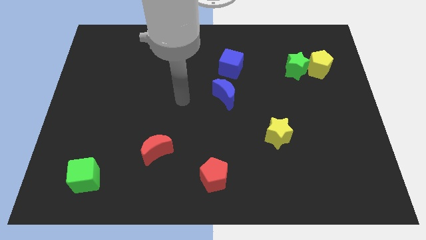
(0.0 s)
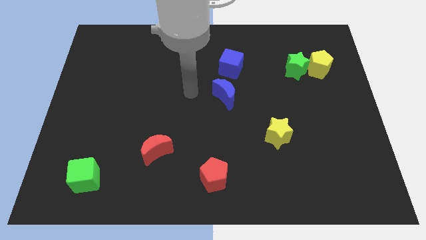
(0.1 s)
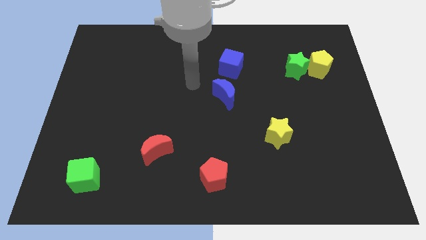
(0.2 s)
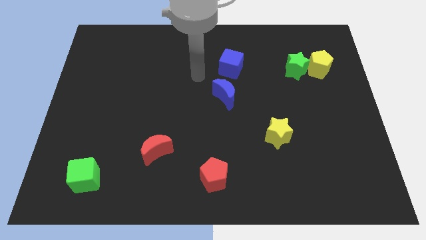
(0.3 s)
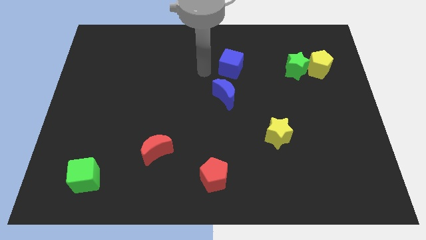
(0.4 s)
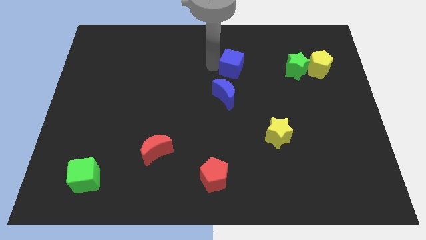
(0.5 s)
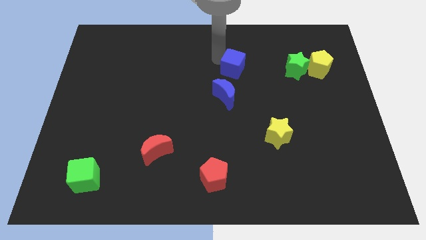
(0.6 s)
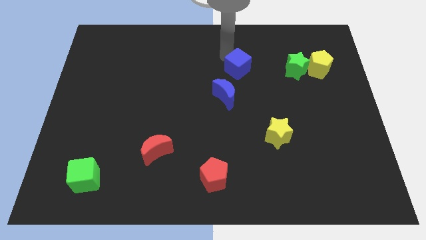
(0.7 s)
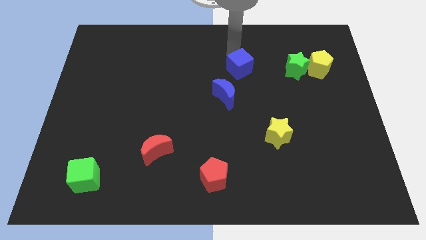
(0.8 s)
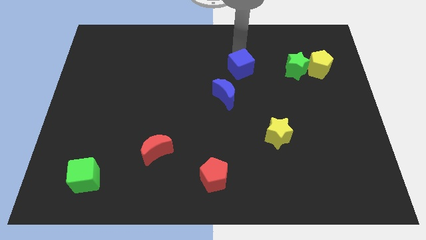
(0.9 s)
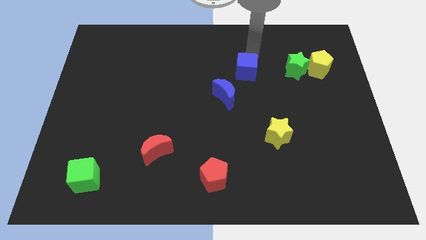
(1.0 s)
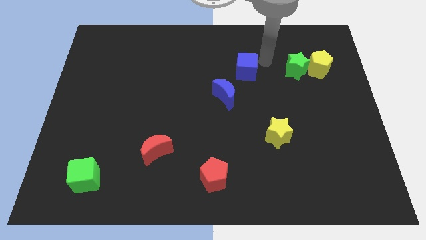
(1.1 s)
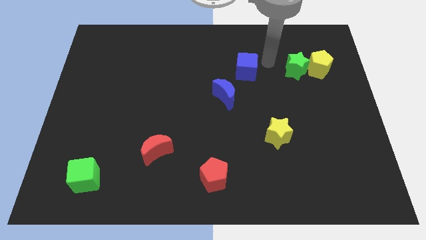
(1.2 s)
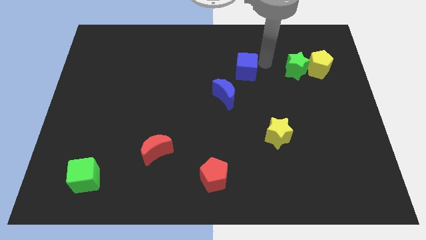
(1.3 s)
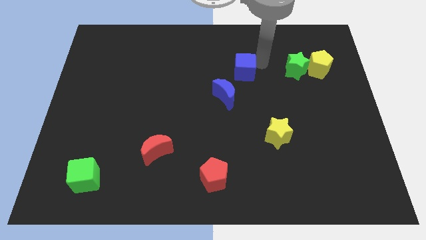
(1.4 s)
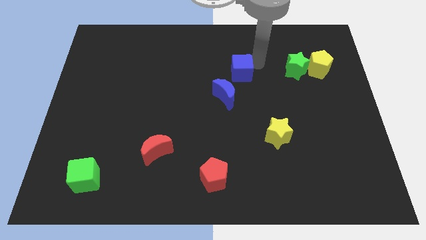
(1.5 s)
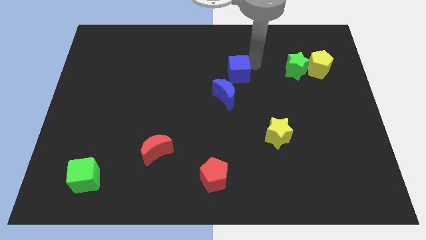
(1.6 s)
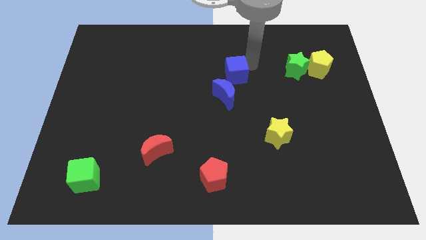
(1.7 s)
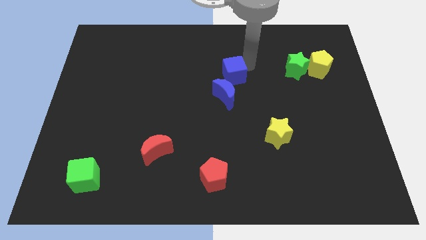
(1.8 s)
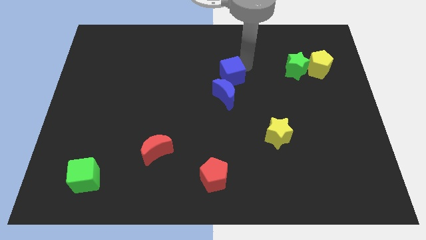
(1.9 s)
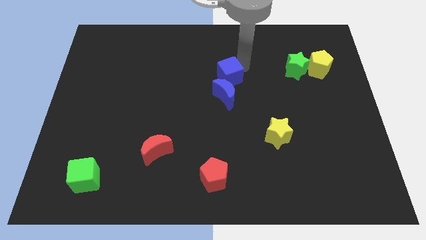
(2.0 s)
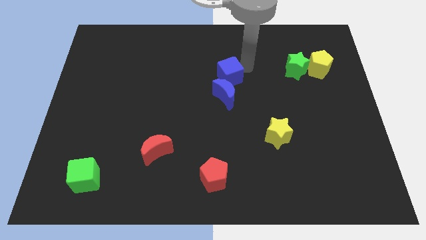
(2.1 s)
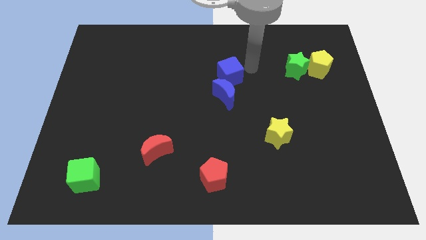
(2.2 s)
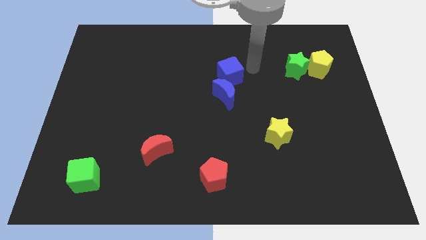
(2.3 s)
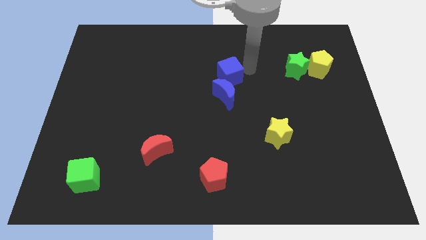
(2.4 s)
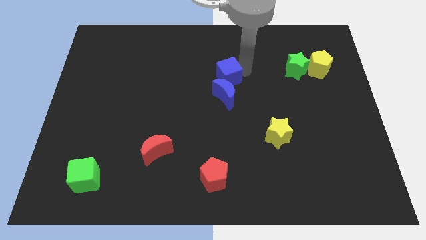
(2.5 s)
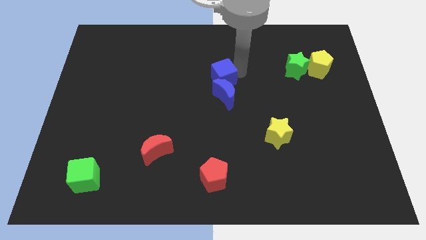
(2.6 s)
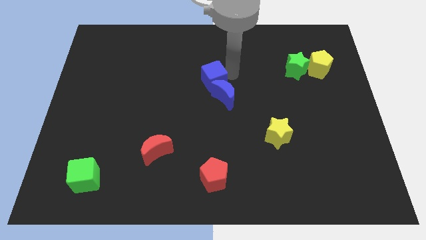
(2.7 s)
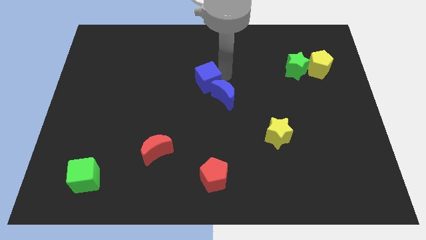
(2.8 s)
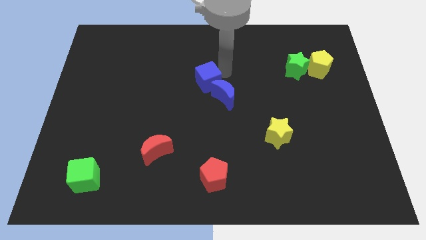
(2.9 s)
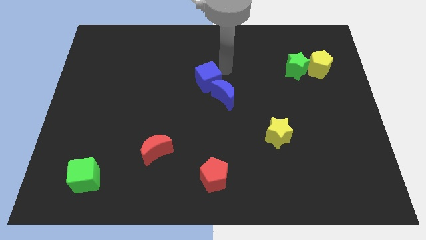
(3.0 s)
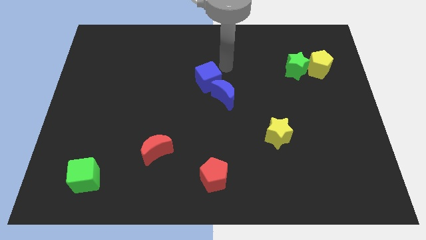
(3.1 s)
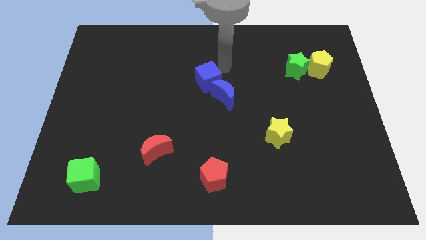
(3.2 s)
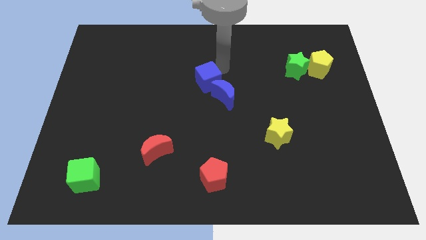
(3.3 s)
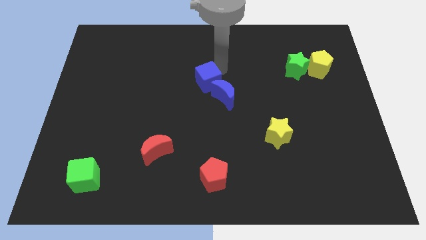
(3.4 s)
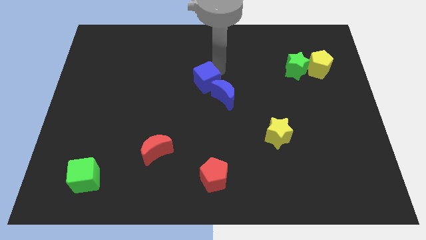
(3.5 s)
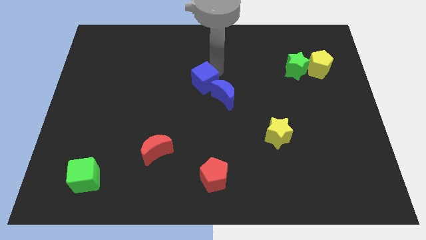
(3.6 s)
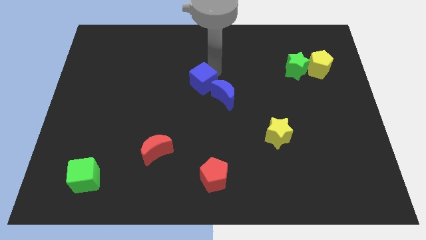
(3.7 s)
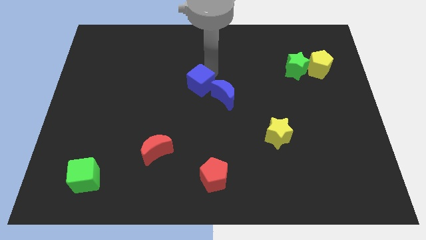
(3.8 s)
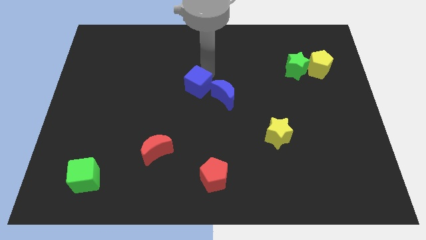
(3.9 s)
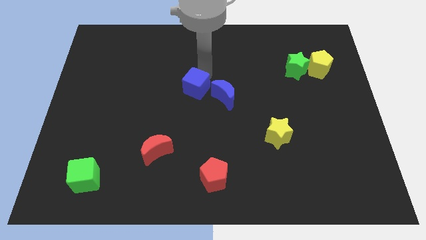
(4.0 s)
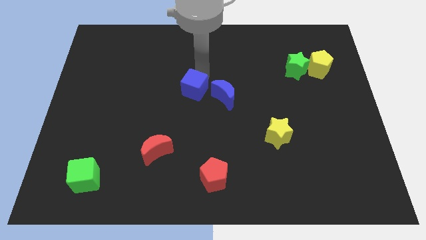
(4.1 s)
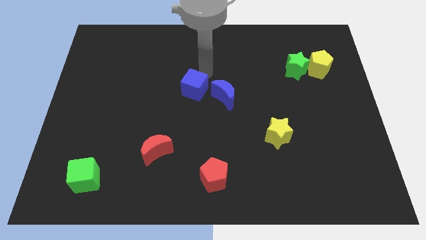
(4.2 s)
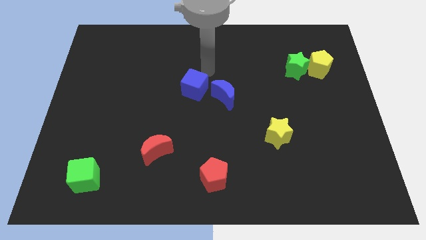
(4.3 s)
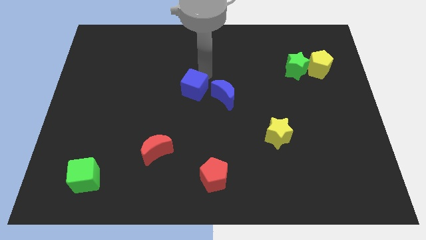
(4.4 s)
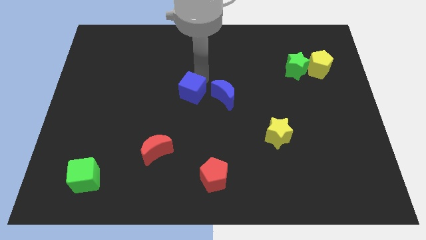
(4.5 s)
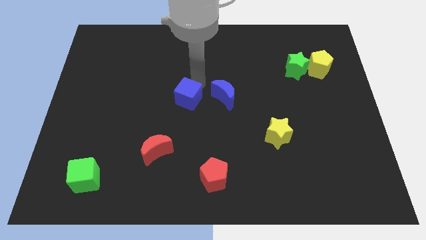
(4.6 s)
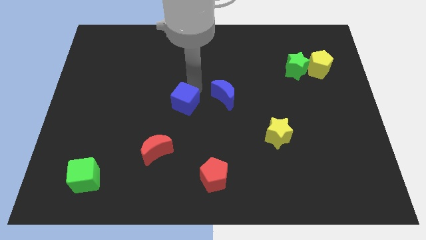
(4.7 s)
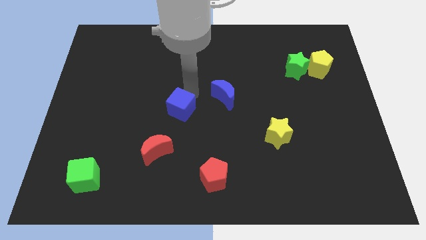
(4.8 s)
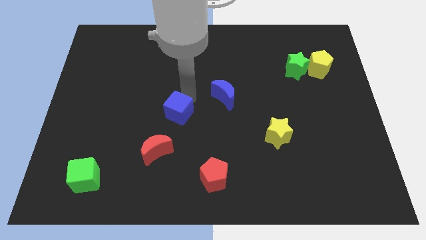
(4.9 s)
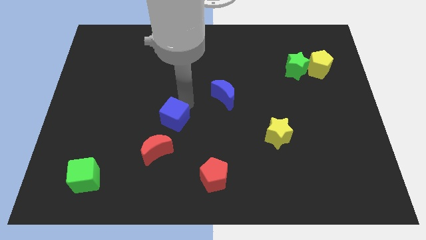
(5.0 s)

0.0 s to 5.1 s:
push the blue cube downwards and left

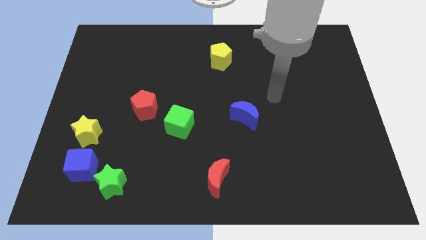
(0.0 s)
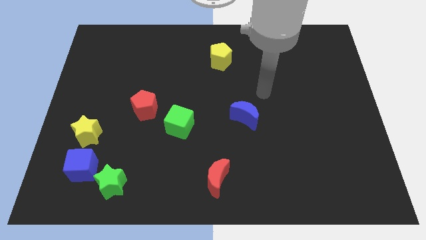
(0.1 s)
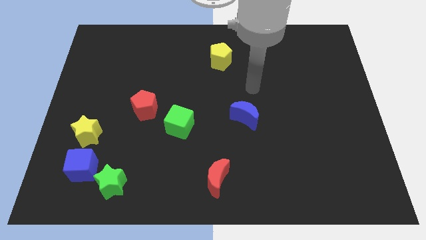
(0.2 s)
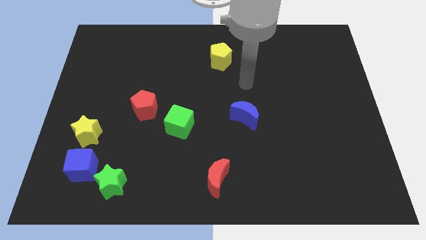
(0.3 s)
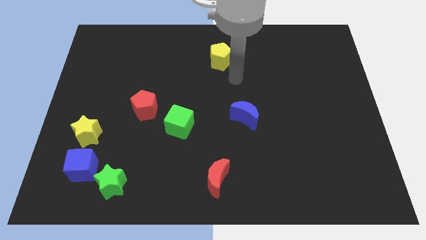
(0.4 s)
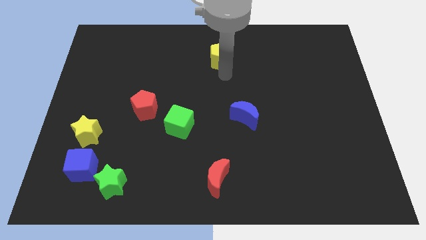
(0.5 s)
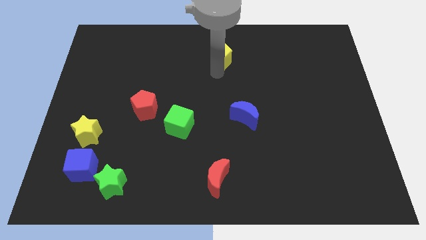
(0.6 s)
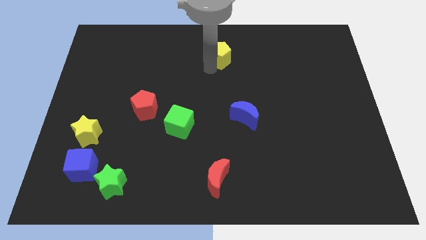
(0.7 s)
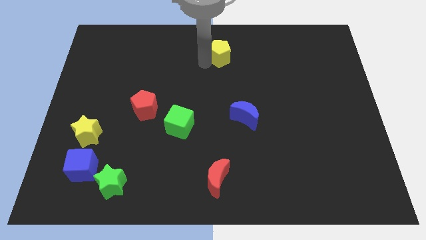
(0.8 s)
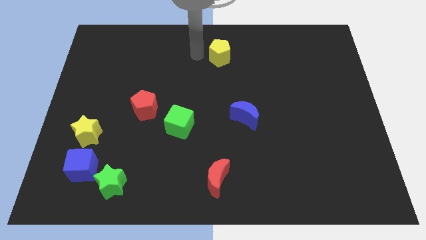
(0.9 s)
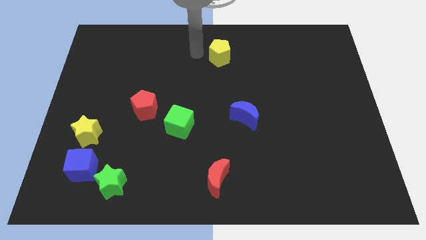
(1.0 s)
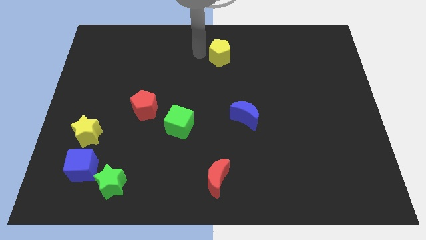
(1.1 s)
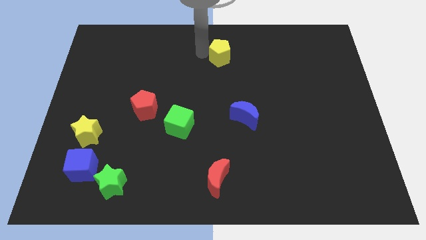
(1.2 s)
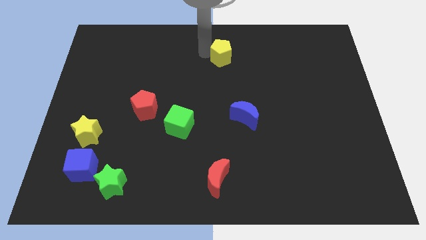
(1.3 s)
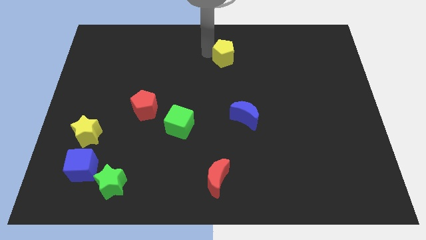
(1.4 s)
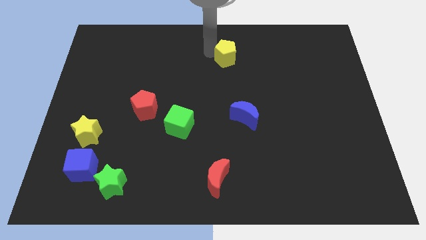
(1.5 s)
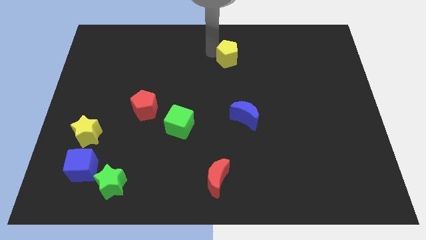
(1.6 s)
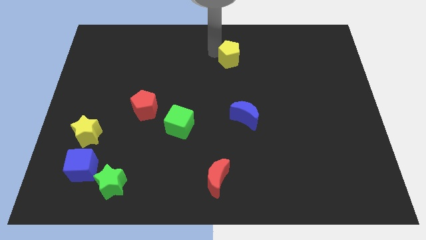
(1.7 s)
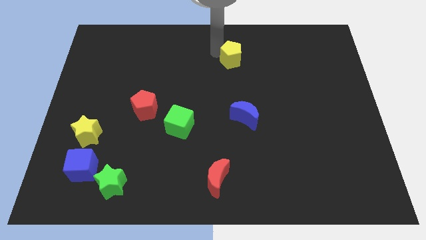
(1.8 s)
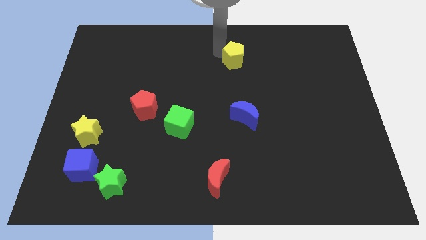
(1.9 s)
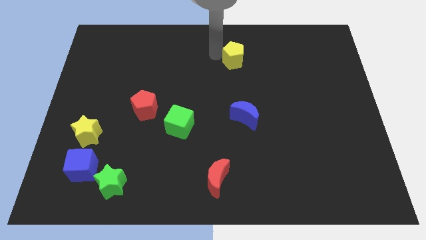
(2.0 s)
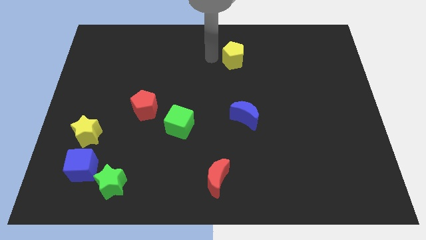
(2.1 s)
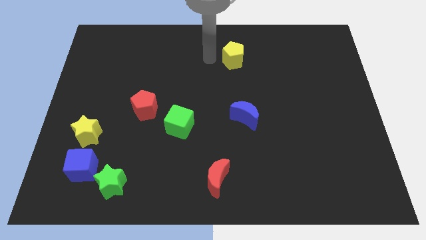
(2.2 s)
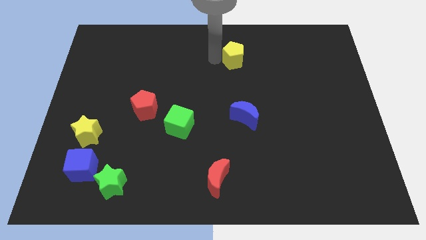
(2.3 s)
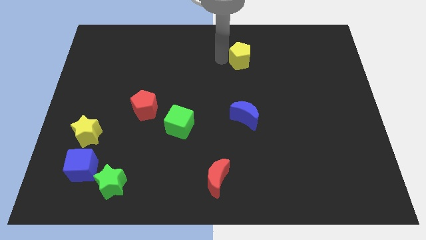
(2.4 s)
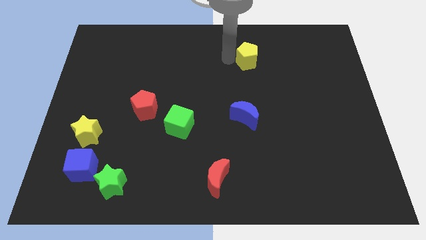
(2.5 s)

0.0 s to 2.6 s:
slide the yellow pentagon to the right a bit

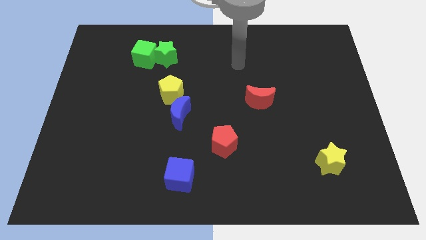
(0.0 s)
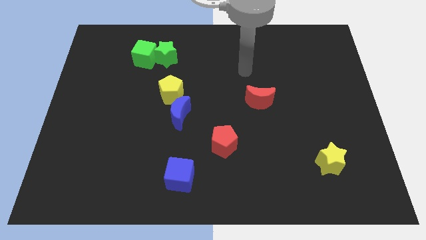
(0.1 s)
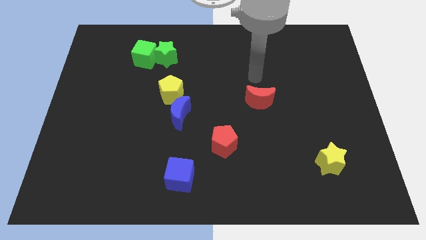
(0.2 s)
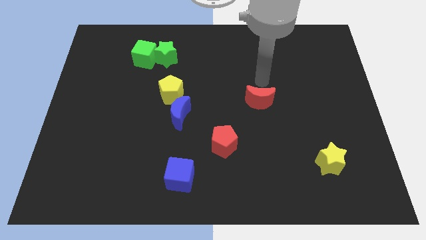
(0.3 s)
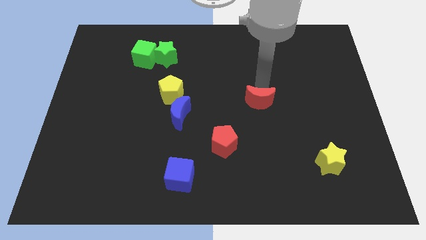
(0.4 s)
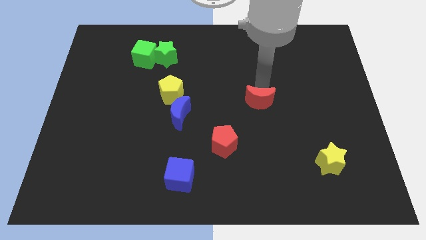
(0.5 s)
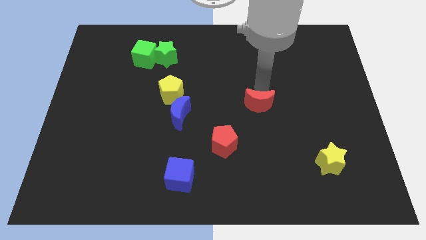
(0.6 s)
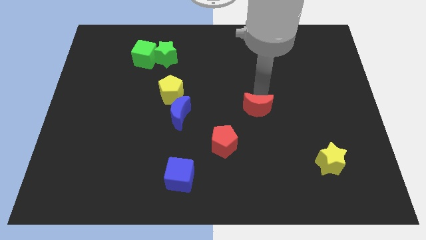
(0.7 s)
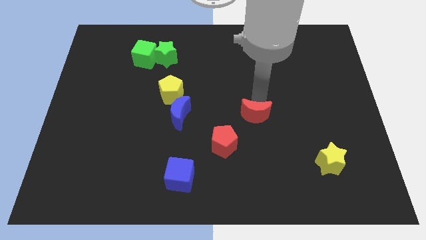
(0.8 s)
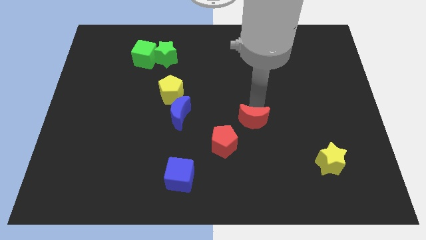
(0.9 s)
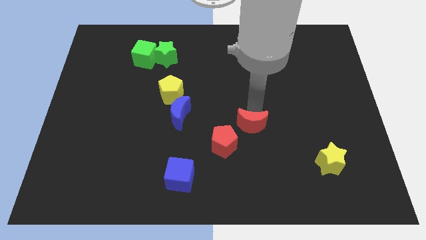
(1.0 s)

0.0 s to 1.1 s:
slightly push the red moon downwards
